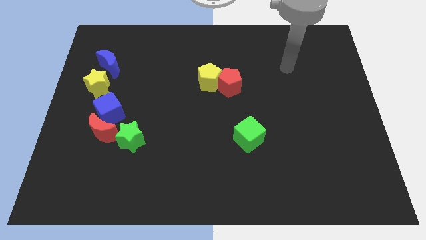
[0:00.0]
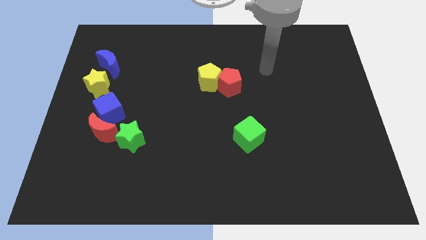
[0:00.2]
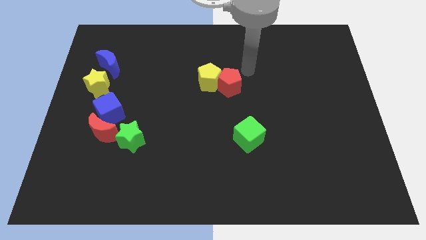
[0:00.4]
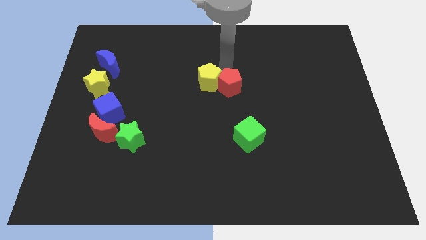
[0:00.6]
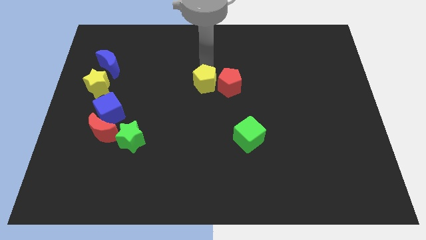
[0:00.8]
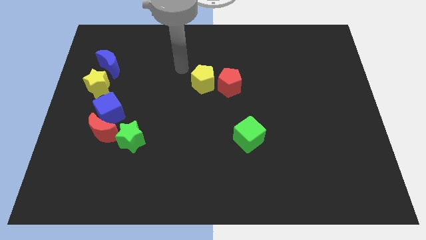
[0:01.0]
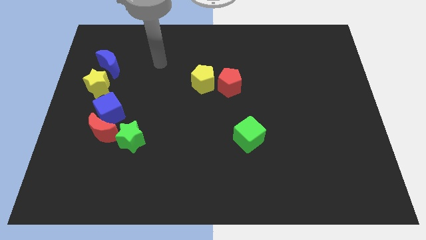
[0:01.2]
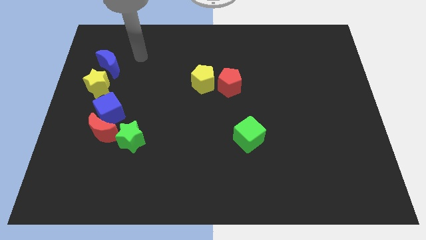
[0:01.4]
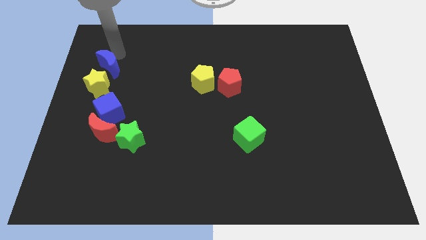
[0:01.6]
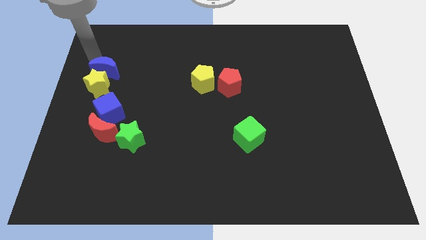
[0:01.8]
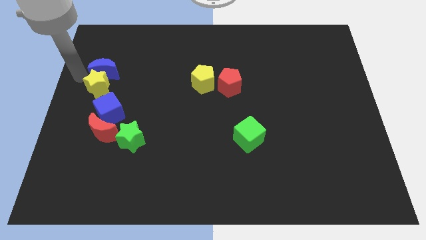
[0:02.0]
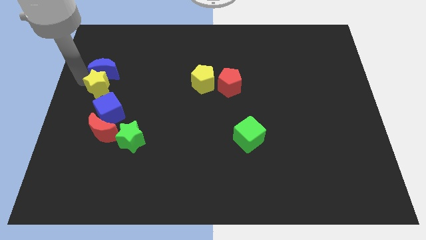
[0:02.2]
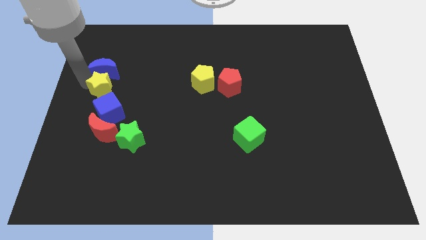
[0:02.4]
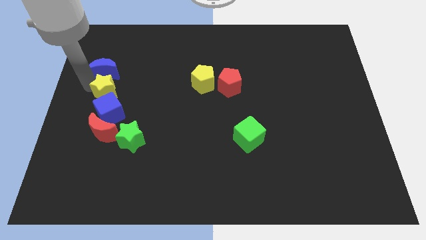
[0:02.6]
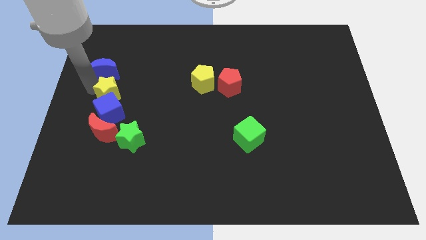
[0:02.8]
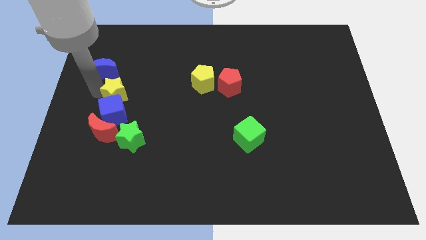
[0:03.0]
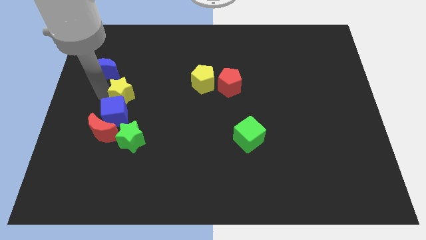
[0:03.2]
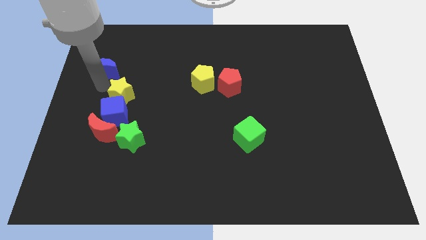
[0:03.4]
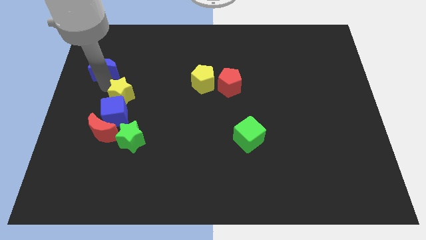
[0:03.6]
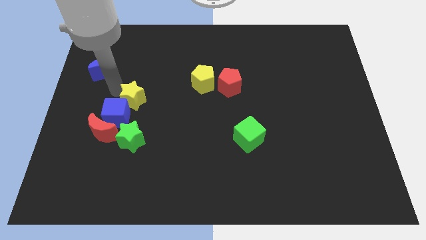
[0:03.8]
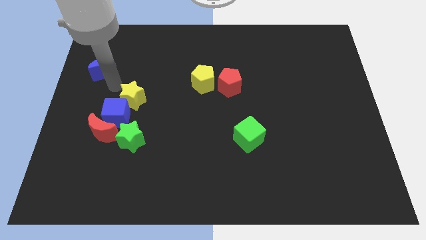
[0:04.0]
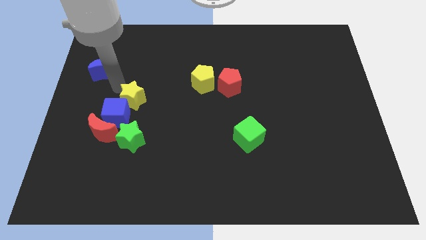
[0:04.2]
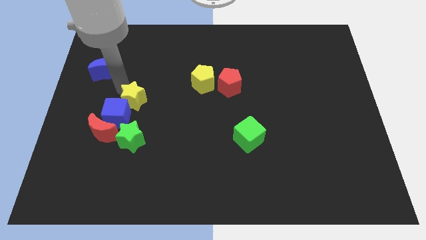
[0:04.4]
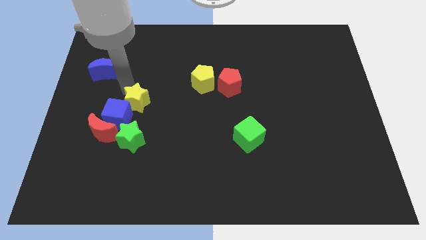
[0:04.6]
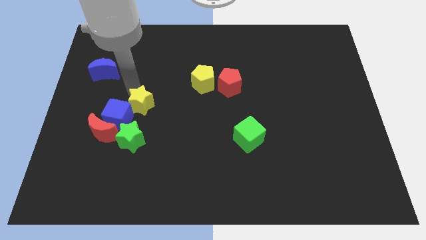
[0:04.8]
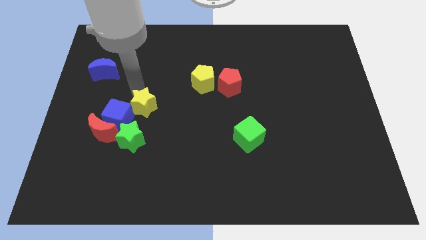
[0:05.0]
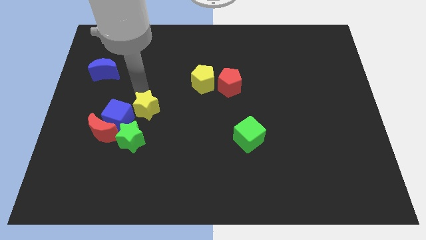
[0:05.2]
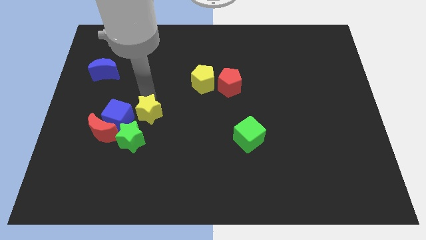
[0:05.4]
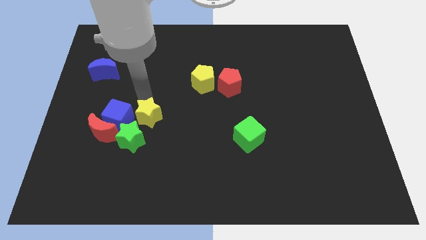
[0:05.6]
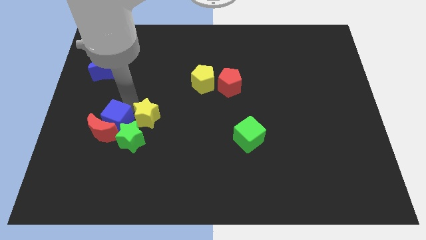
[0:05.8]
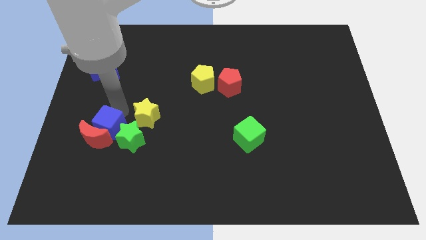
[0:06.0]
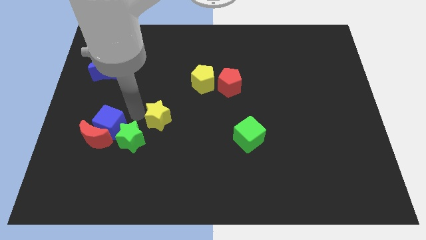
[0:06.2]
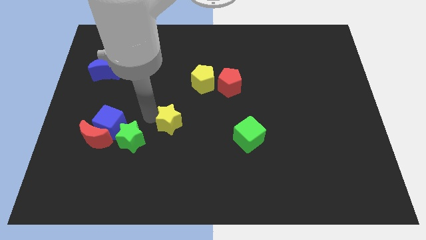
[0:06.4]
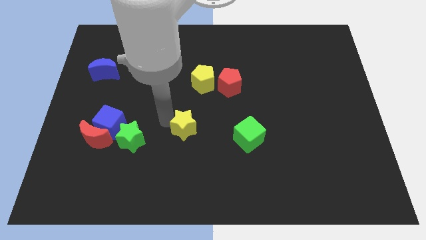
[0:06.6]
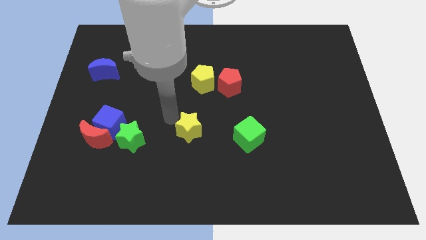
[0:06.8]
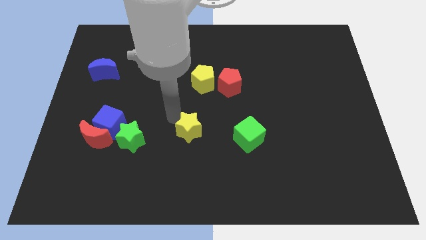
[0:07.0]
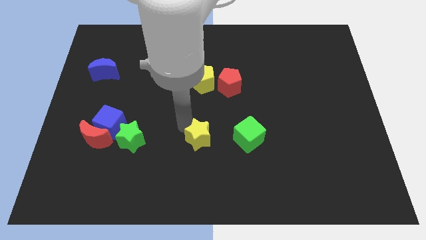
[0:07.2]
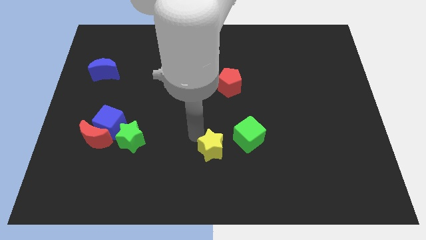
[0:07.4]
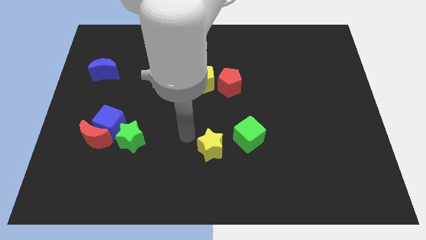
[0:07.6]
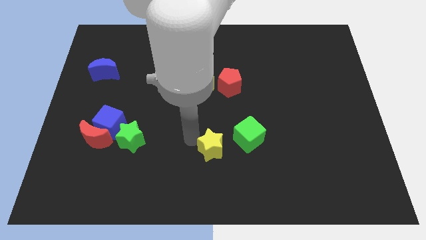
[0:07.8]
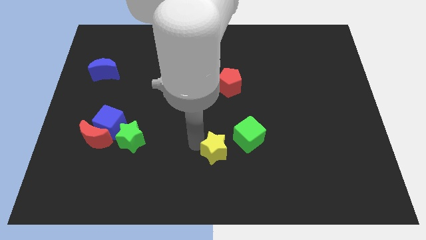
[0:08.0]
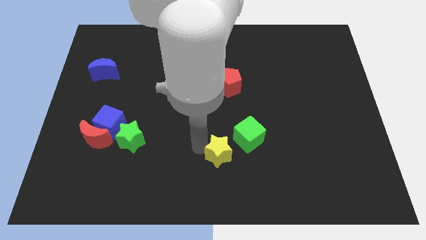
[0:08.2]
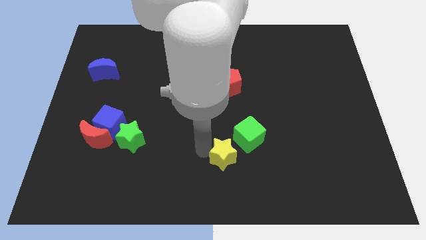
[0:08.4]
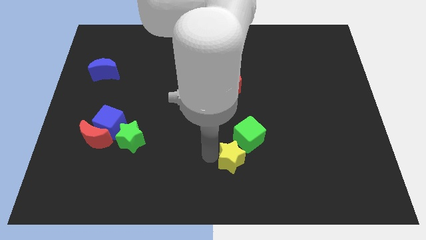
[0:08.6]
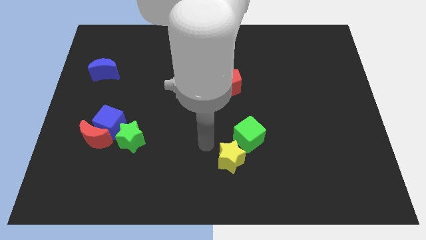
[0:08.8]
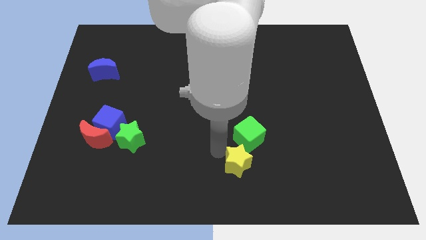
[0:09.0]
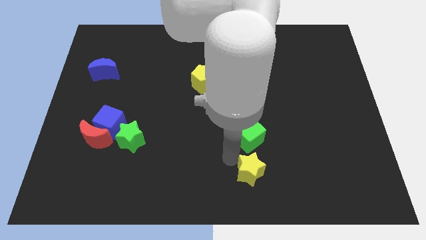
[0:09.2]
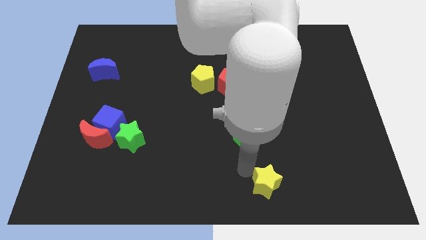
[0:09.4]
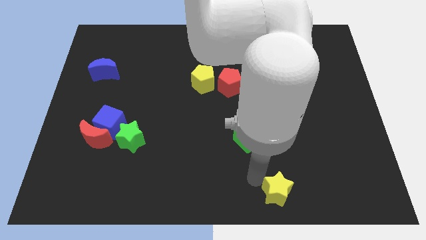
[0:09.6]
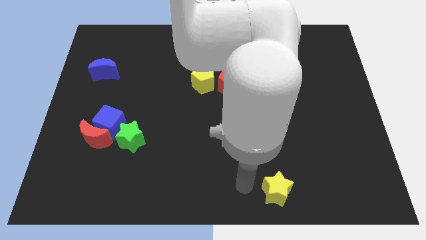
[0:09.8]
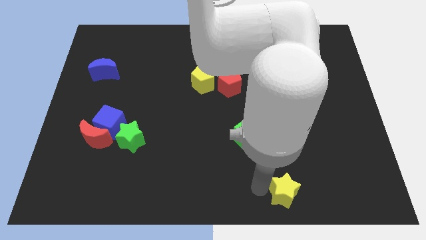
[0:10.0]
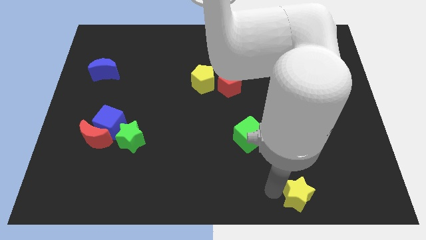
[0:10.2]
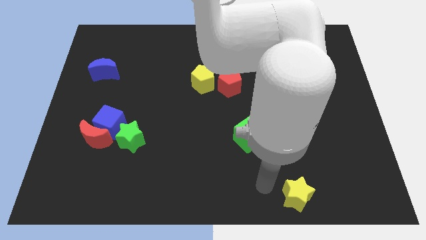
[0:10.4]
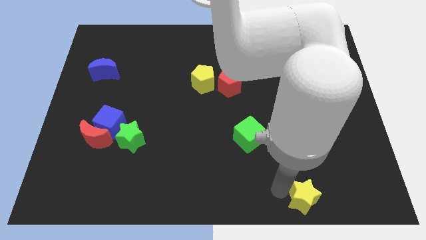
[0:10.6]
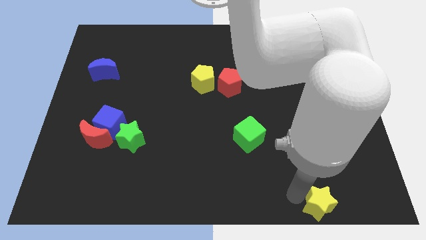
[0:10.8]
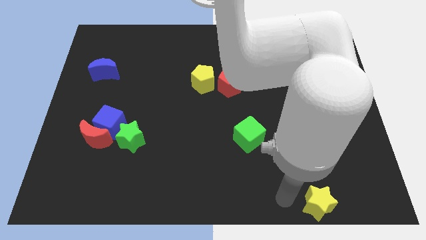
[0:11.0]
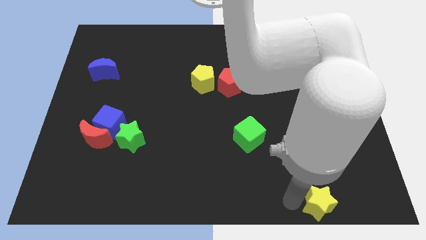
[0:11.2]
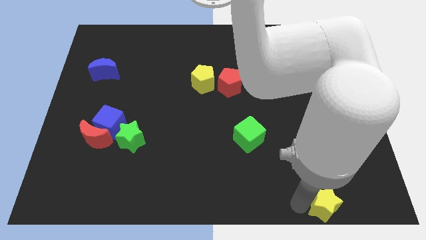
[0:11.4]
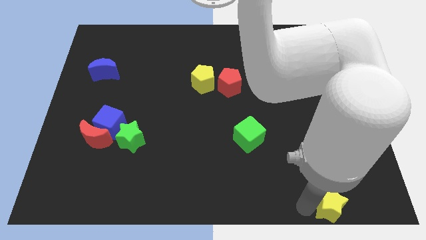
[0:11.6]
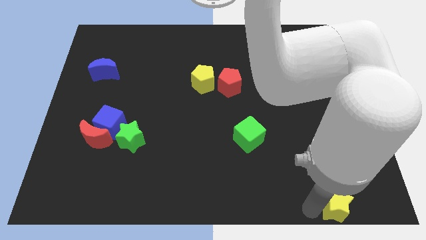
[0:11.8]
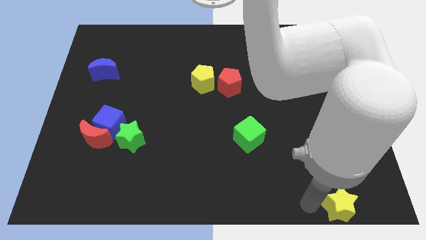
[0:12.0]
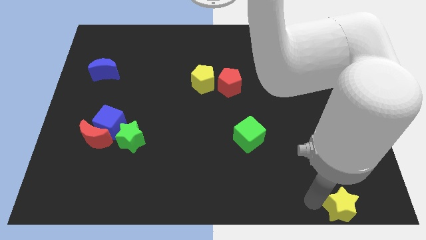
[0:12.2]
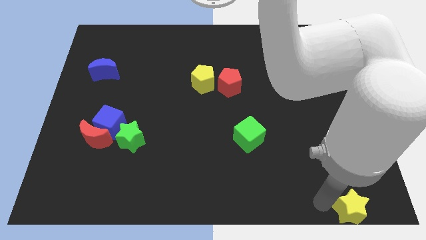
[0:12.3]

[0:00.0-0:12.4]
move the yellow star to the bottom right

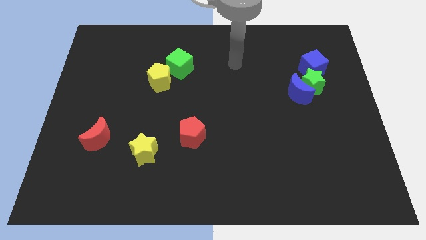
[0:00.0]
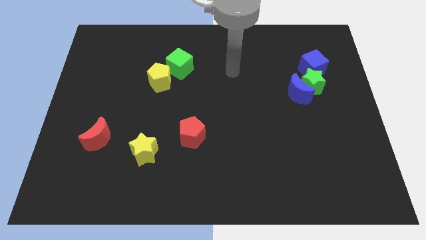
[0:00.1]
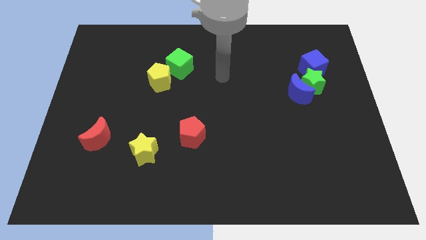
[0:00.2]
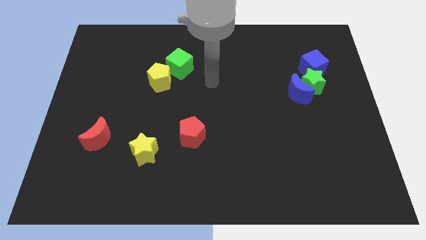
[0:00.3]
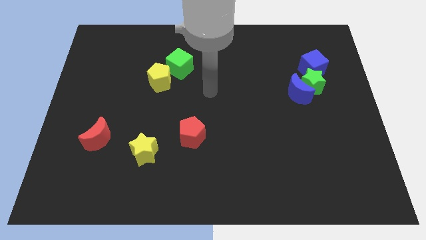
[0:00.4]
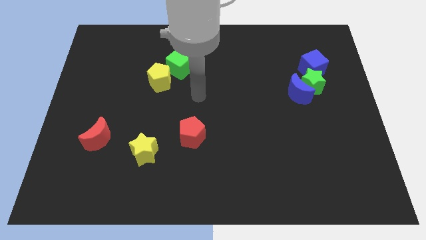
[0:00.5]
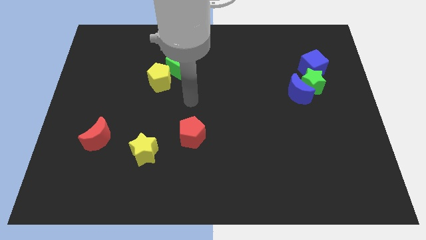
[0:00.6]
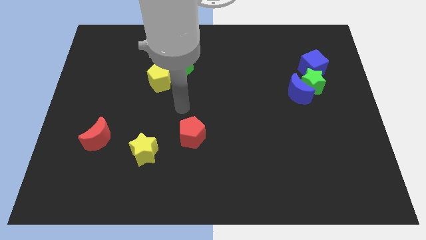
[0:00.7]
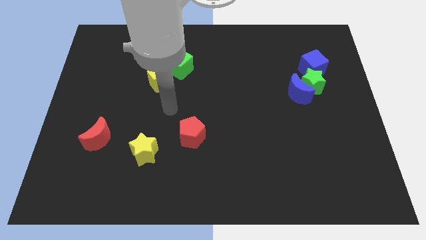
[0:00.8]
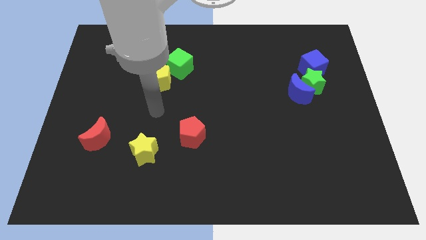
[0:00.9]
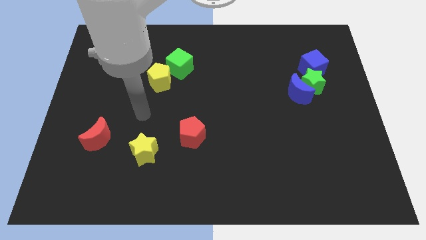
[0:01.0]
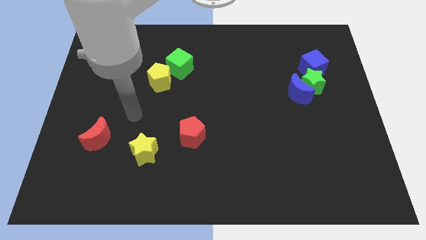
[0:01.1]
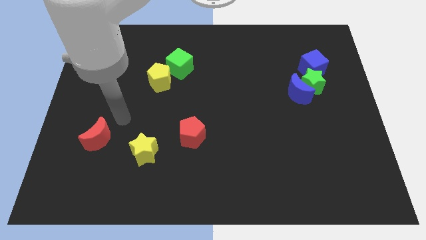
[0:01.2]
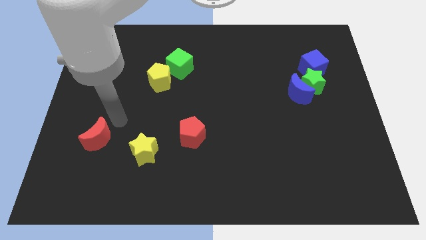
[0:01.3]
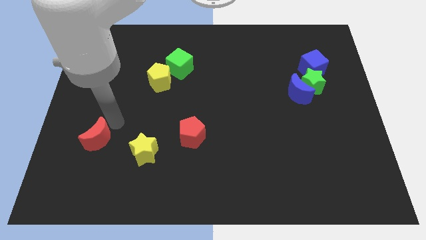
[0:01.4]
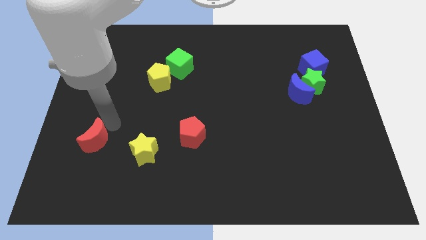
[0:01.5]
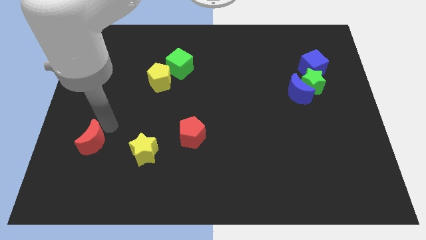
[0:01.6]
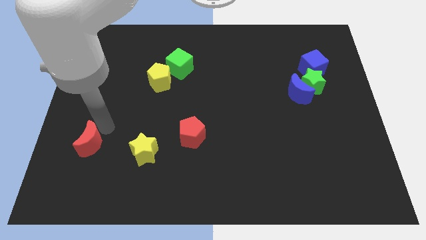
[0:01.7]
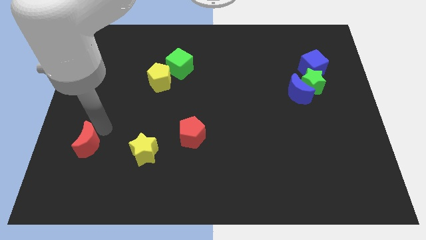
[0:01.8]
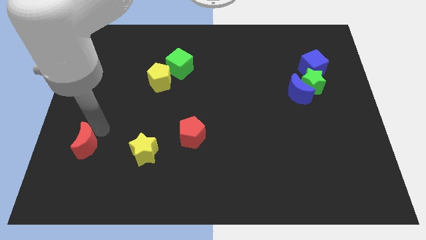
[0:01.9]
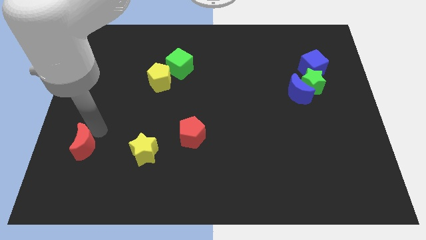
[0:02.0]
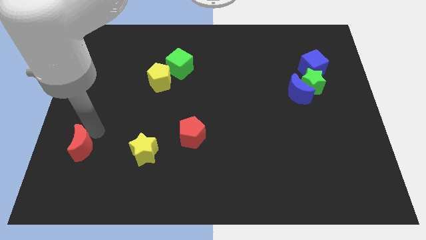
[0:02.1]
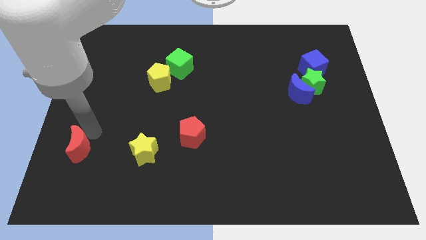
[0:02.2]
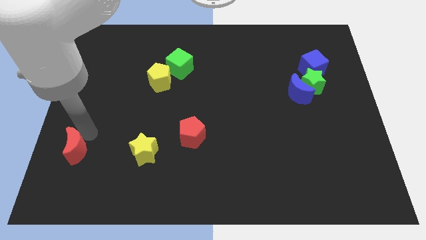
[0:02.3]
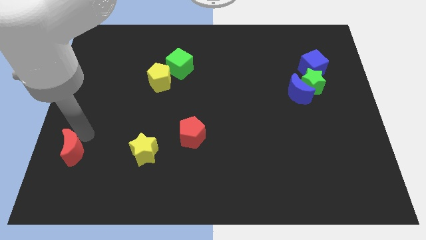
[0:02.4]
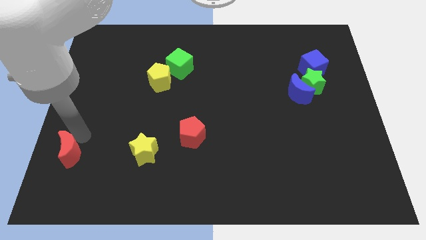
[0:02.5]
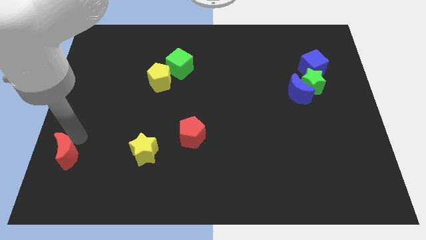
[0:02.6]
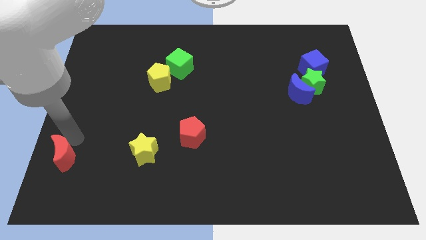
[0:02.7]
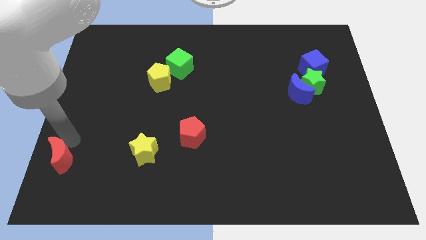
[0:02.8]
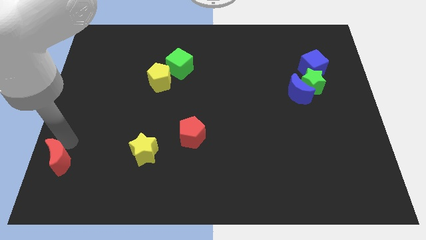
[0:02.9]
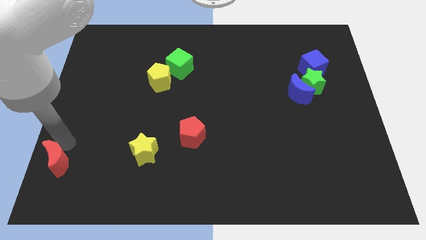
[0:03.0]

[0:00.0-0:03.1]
slide the red moon to the bottom left
